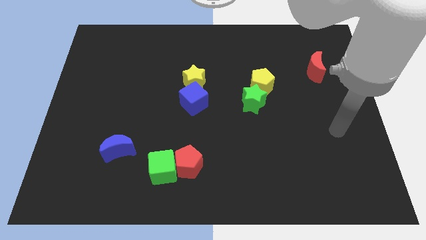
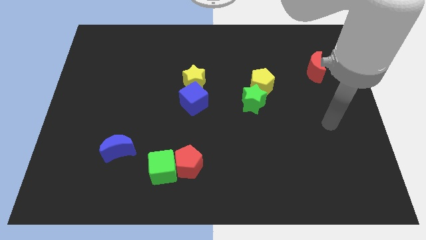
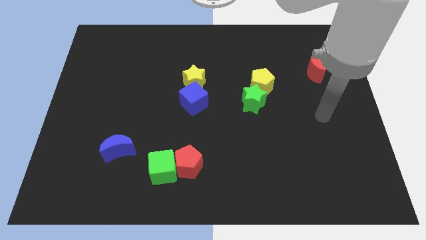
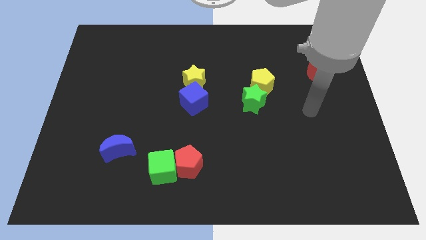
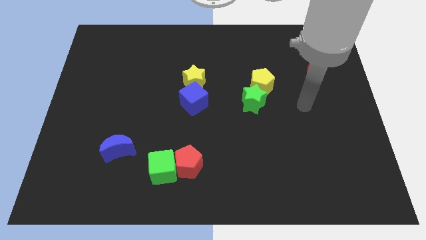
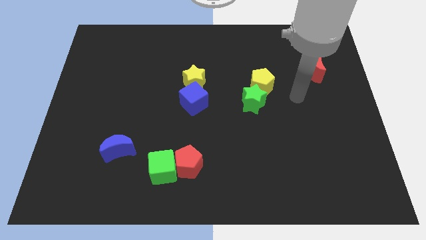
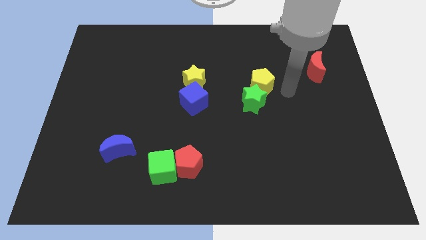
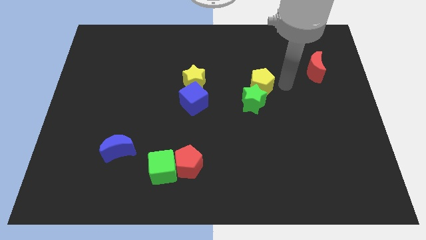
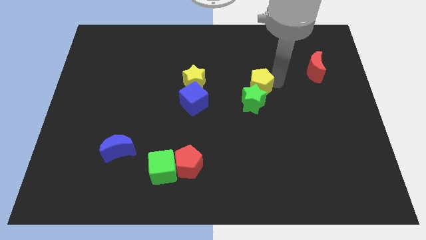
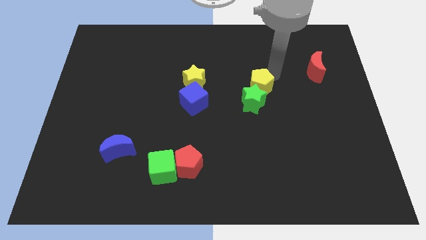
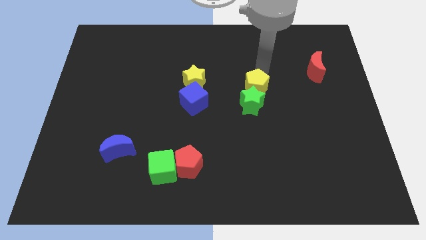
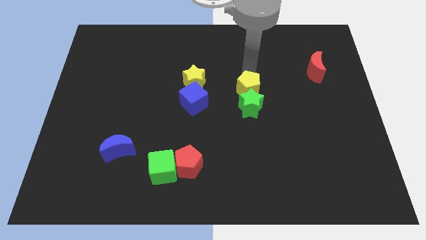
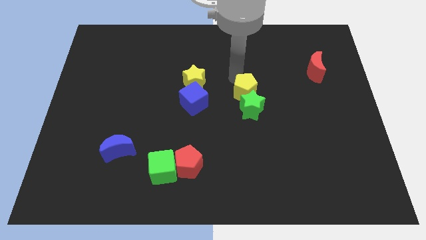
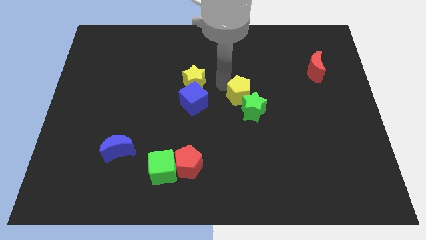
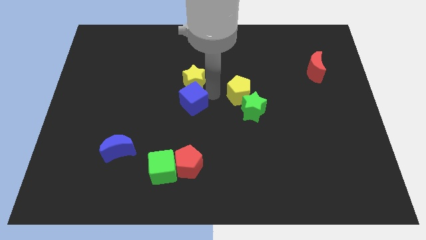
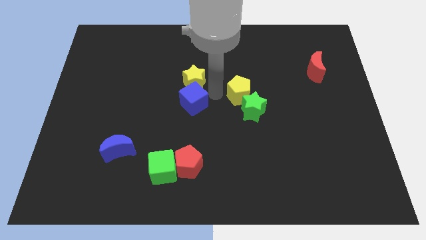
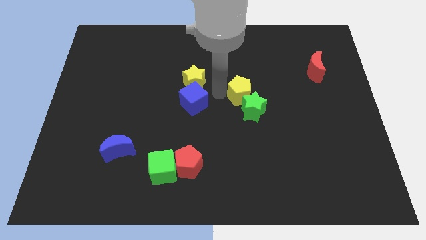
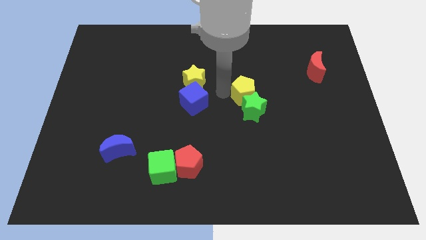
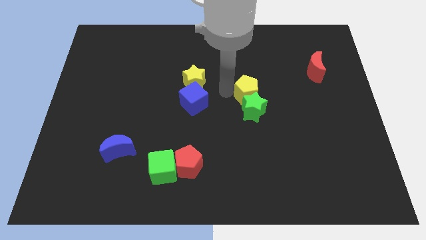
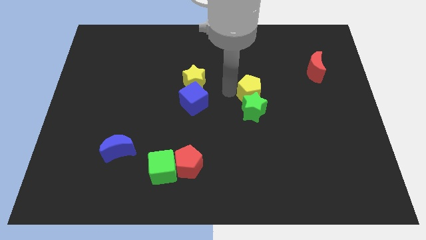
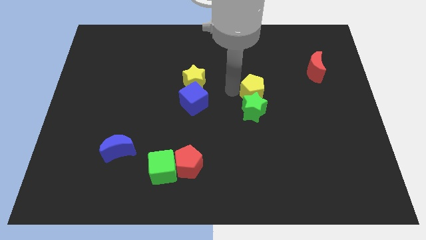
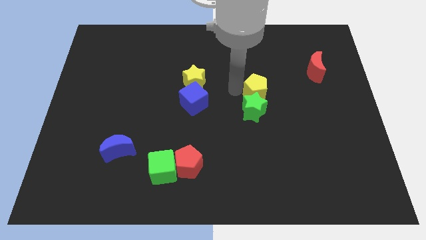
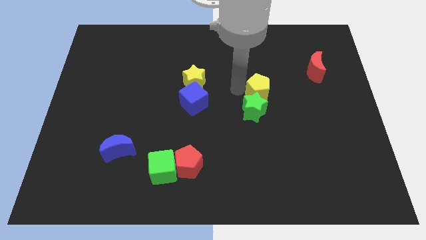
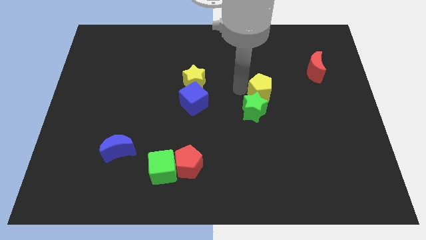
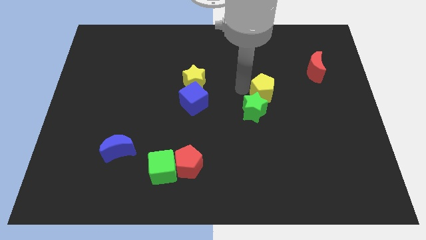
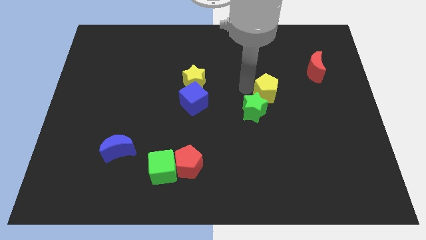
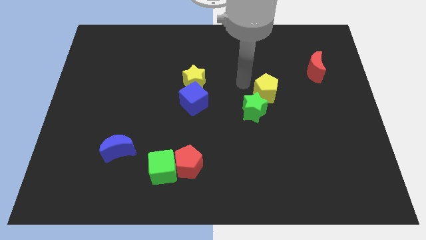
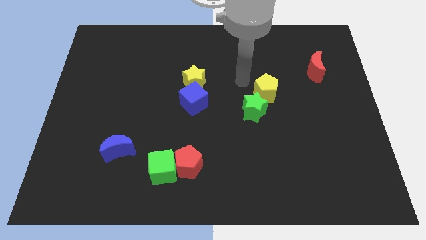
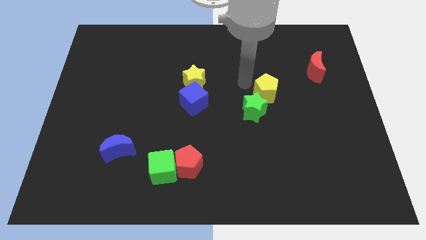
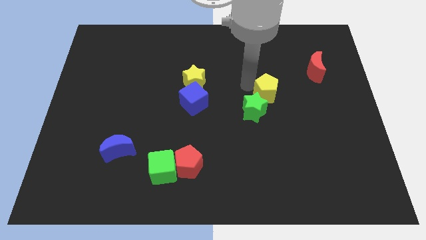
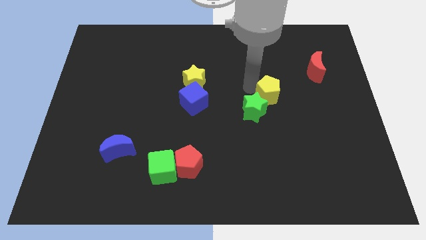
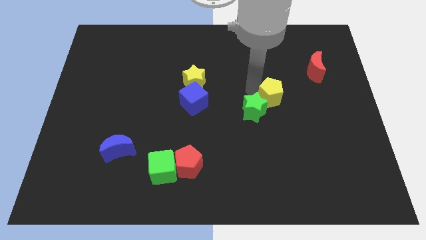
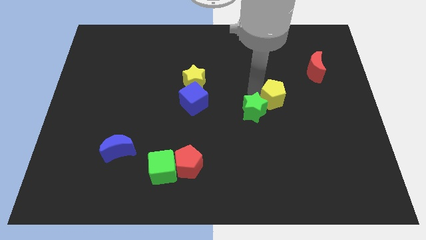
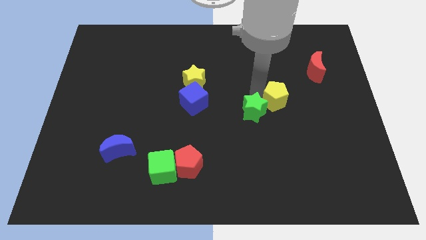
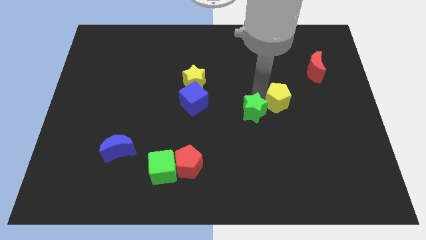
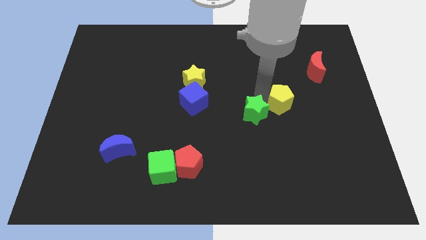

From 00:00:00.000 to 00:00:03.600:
move the yellow pentagon down and right slightly

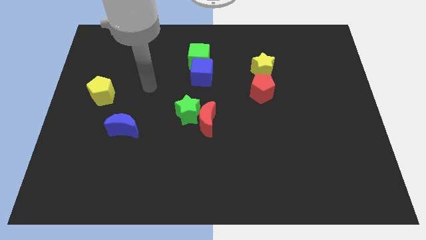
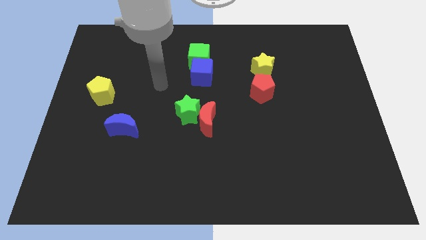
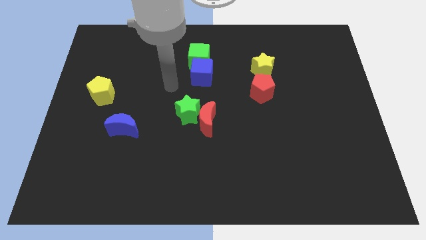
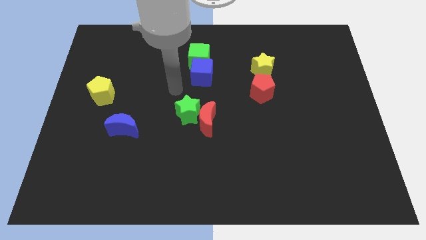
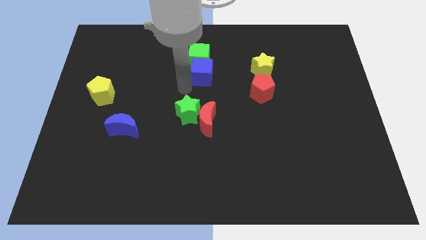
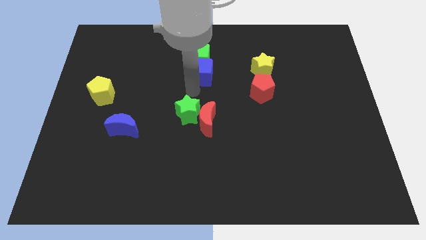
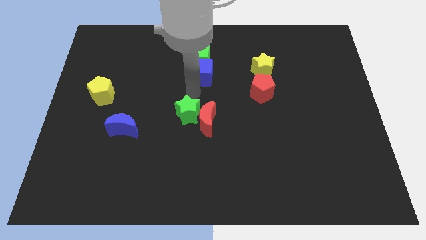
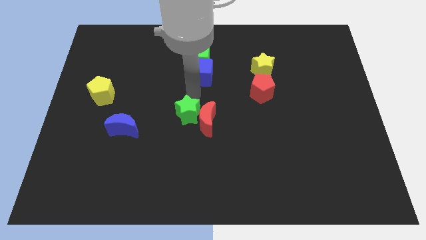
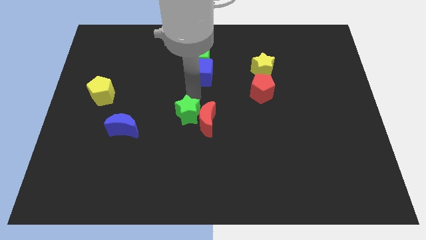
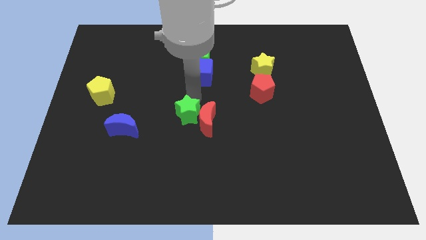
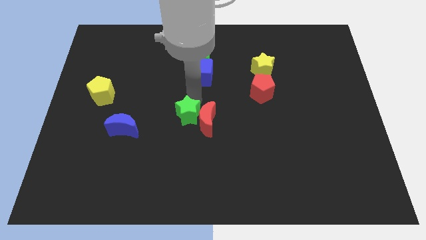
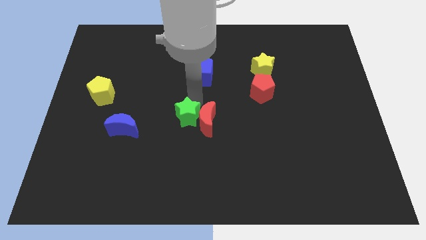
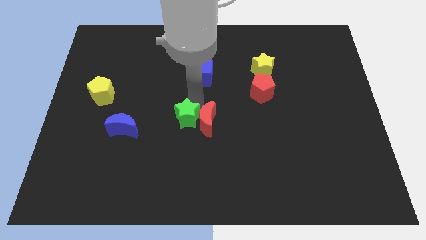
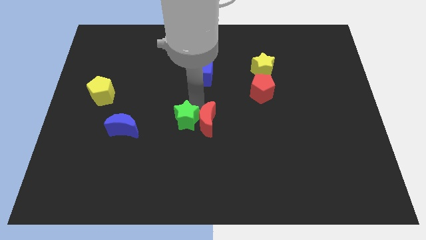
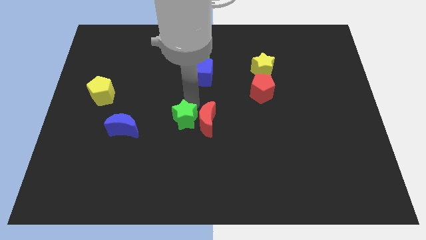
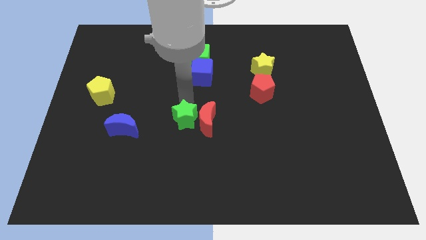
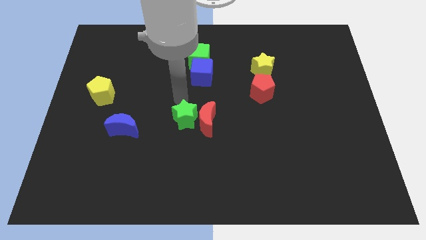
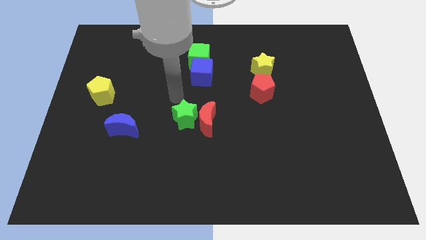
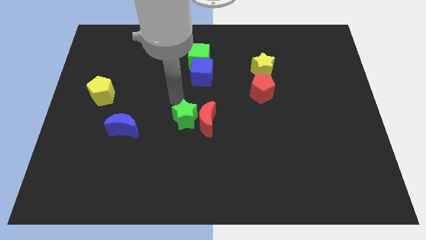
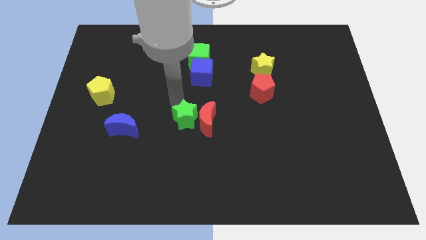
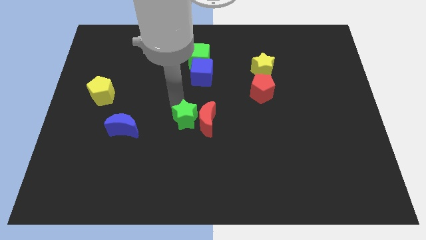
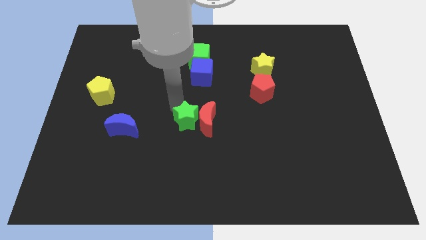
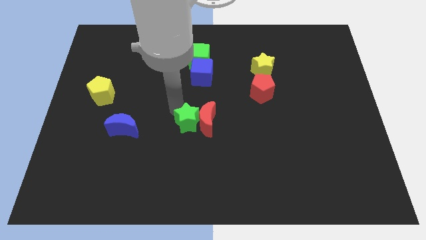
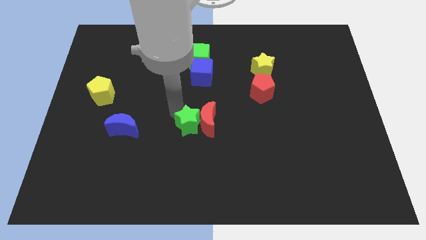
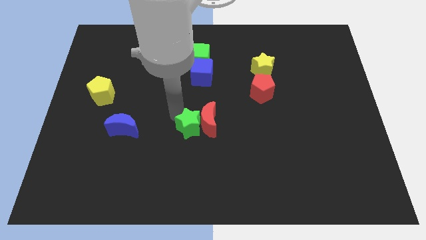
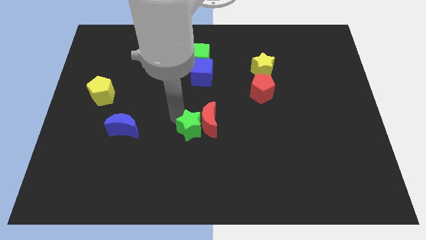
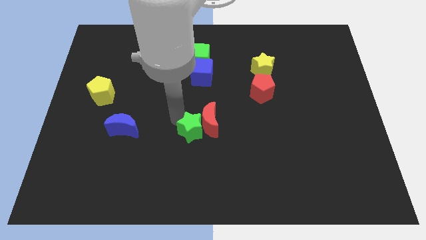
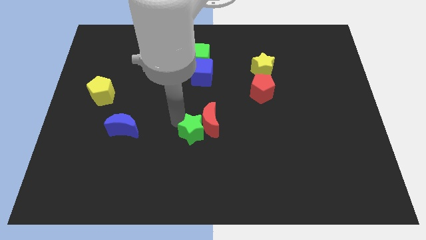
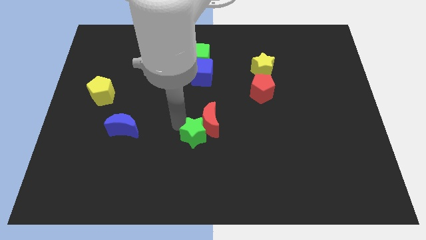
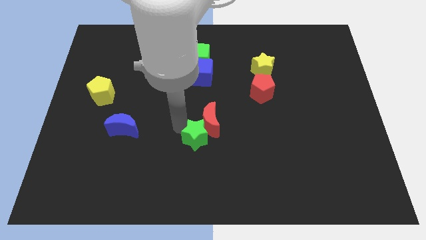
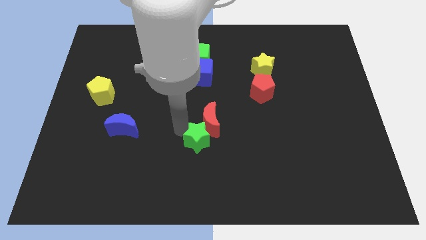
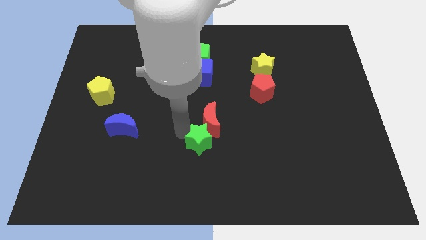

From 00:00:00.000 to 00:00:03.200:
slide the green star down and to the right a little

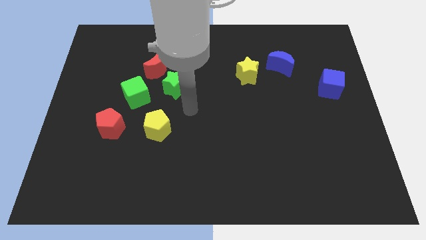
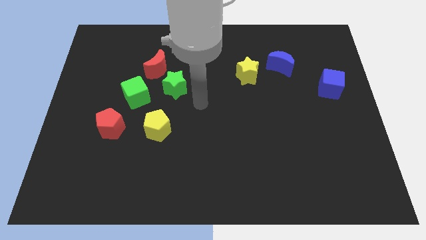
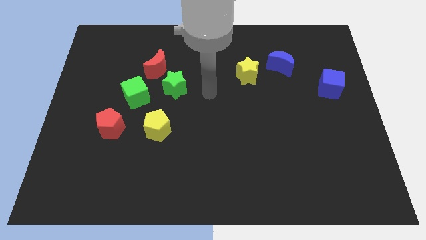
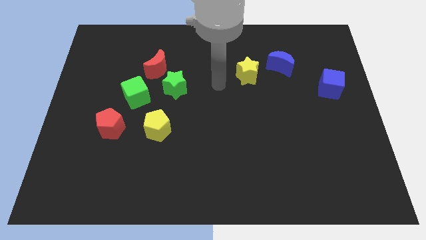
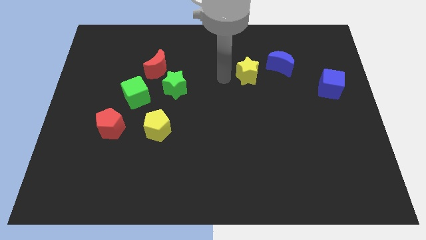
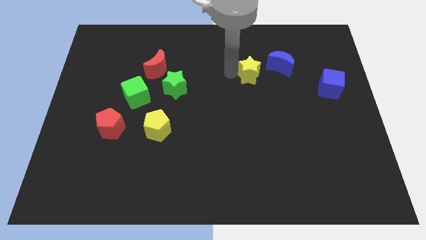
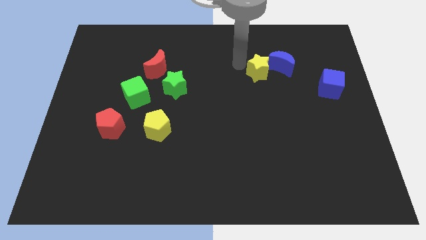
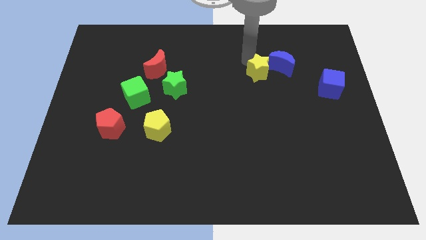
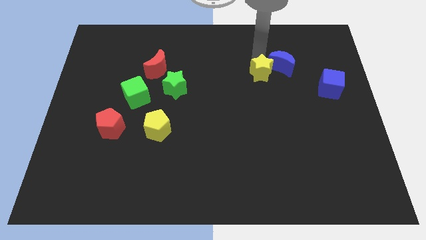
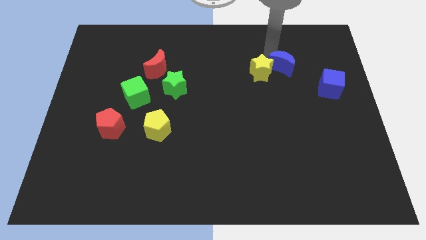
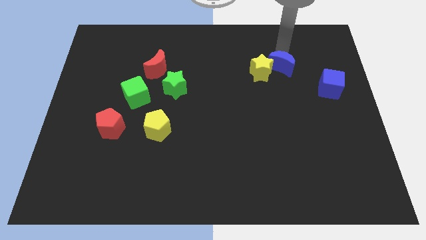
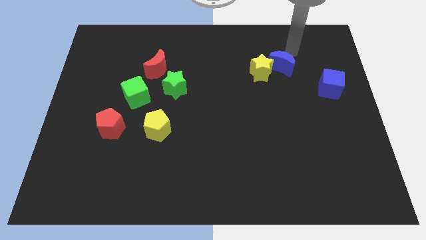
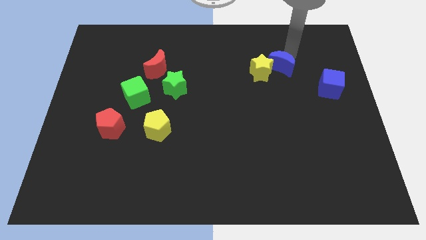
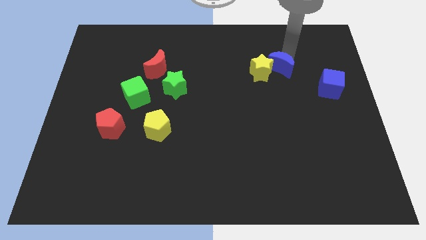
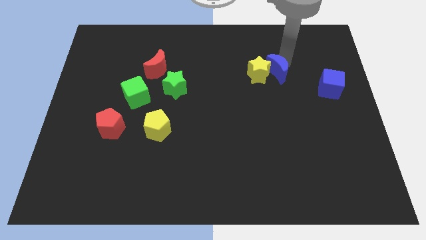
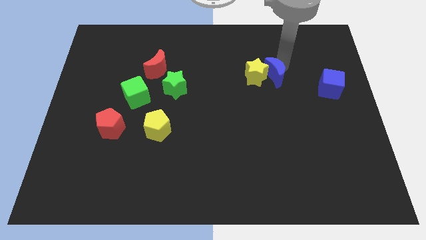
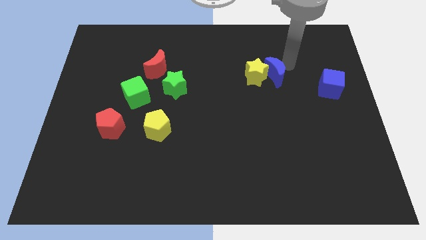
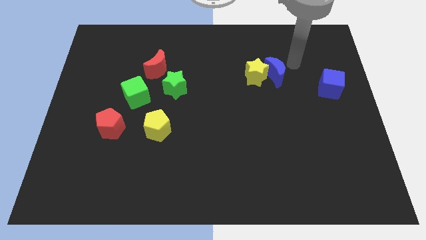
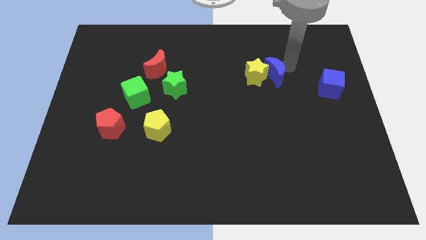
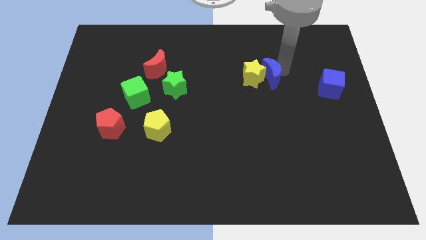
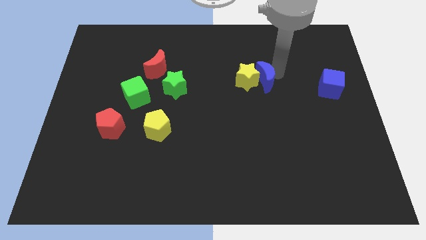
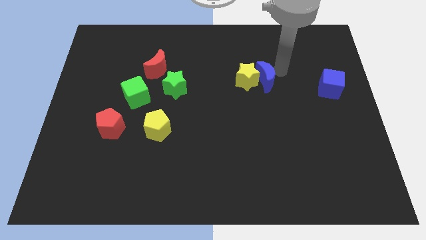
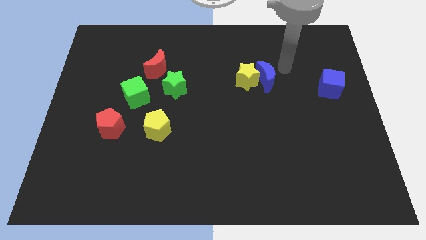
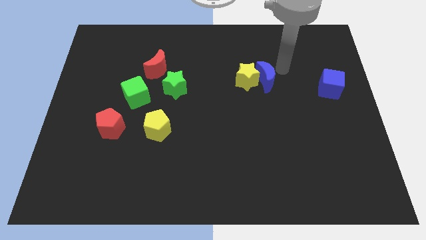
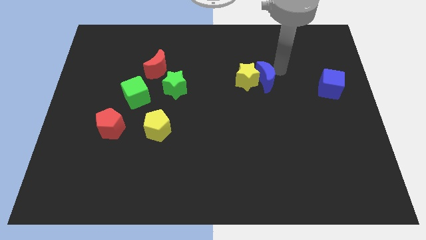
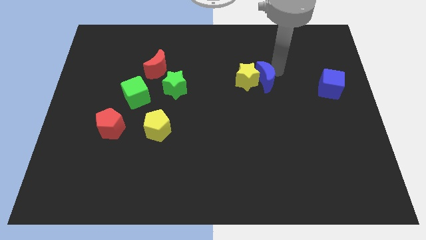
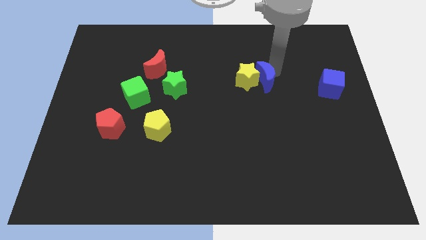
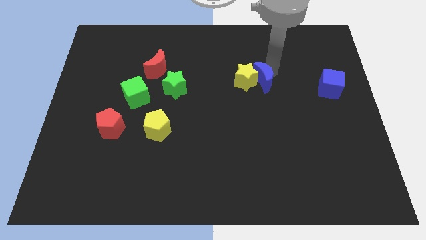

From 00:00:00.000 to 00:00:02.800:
push the blue moon diagonally downwards and left a bit
